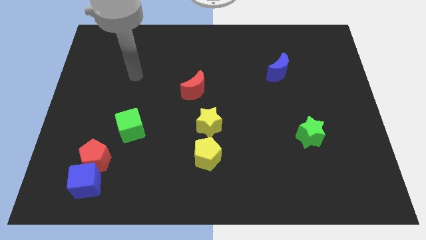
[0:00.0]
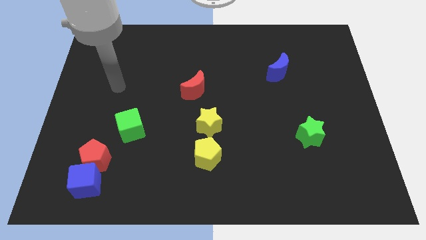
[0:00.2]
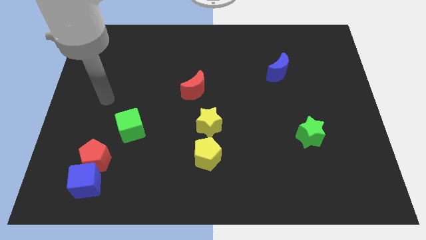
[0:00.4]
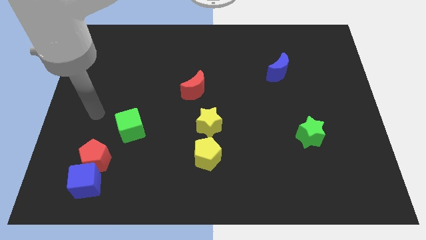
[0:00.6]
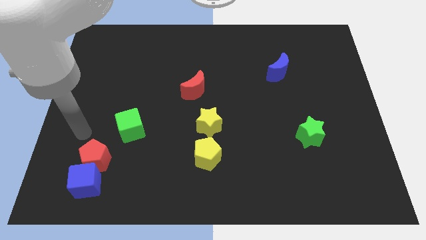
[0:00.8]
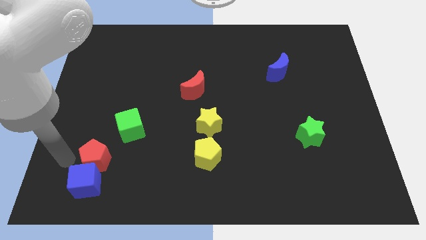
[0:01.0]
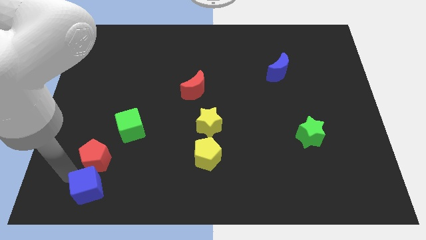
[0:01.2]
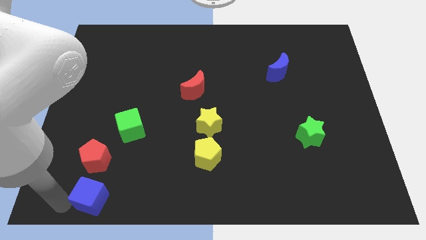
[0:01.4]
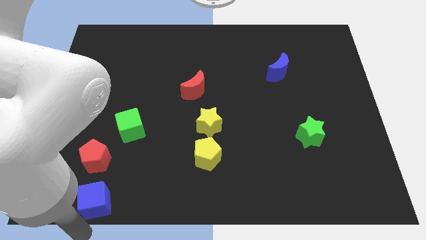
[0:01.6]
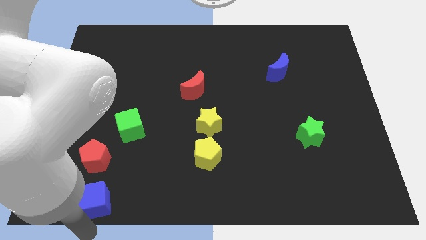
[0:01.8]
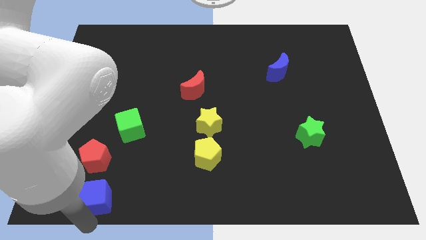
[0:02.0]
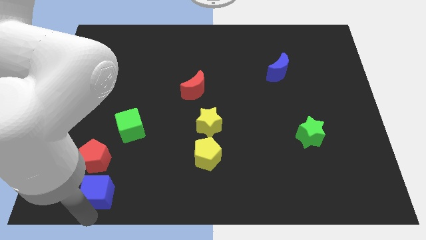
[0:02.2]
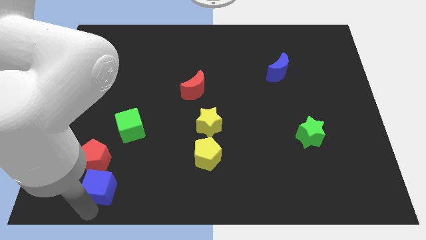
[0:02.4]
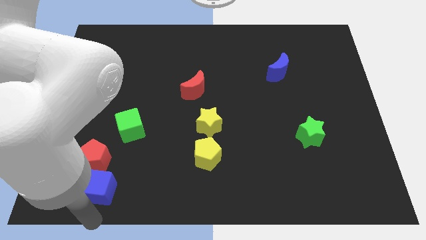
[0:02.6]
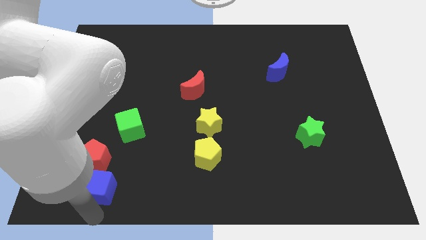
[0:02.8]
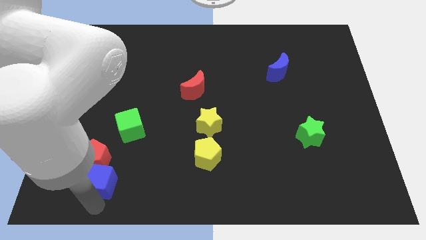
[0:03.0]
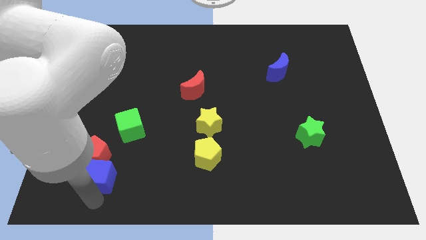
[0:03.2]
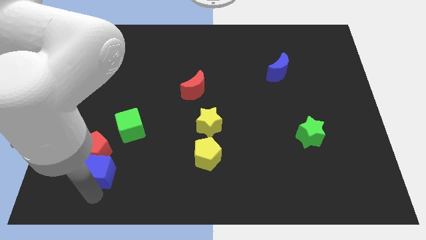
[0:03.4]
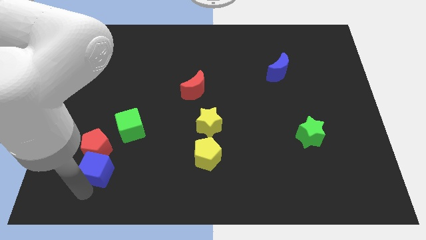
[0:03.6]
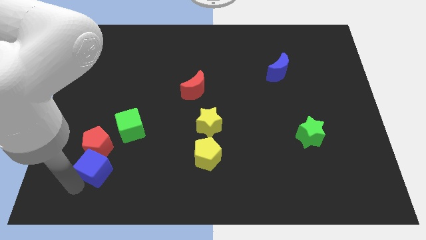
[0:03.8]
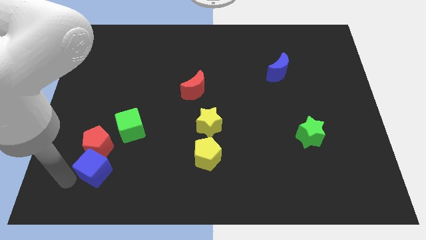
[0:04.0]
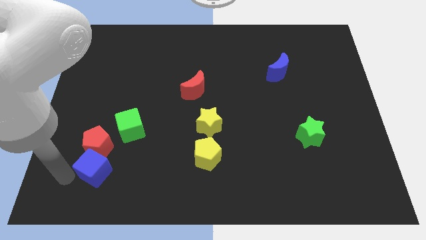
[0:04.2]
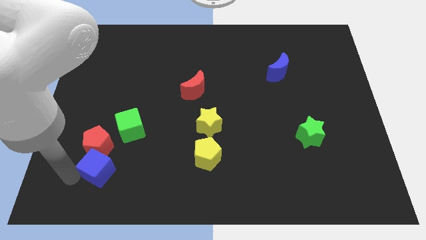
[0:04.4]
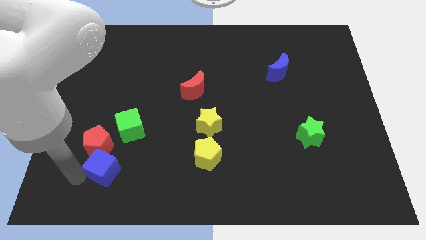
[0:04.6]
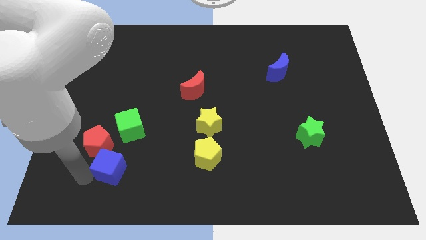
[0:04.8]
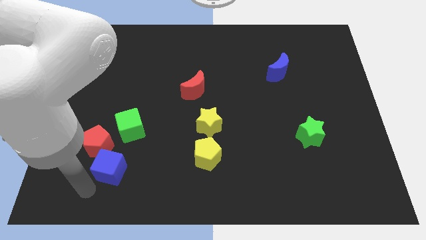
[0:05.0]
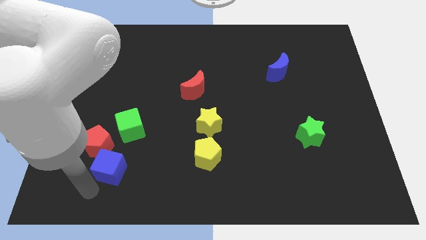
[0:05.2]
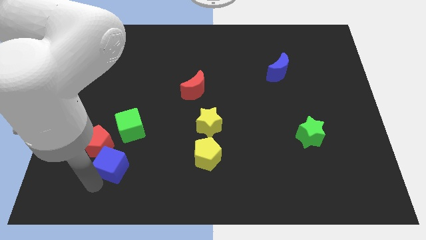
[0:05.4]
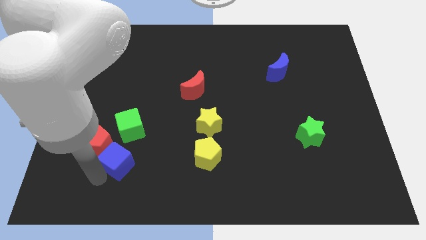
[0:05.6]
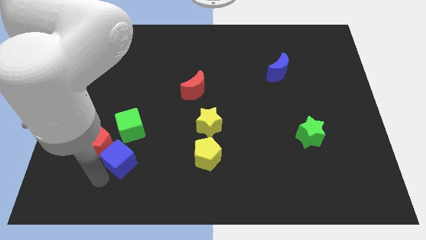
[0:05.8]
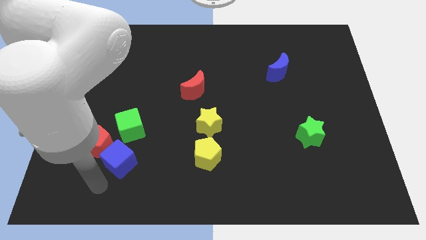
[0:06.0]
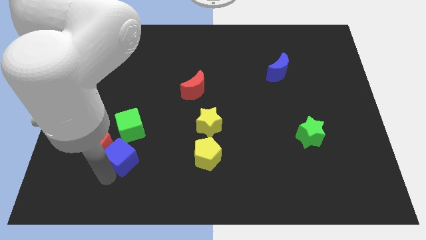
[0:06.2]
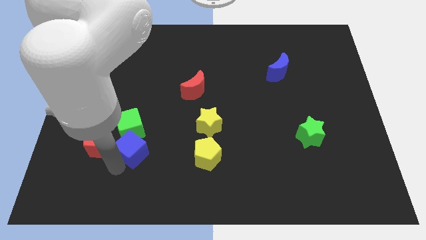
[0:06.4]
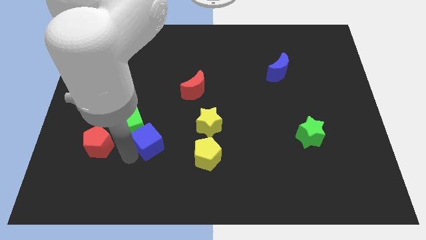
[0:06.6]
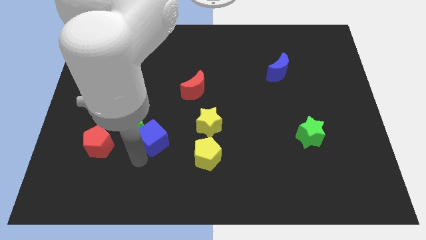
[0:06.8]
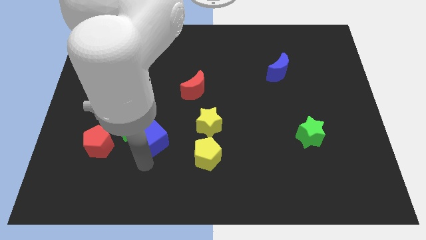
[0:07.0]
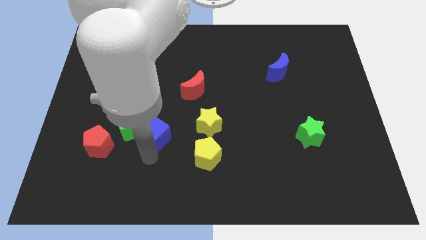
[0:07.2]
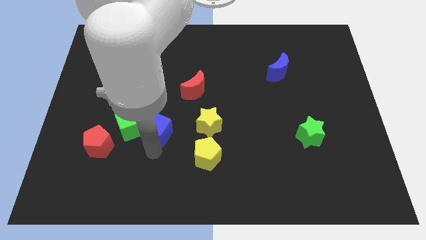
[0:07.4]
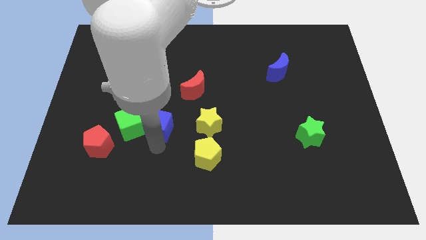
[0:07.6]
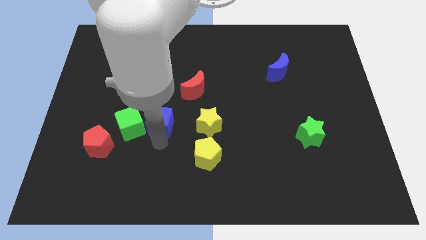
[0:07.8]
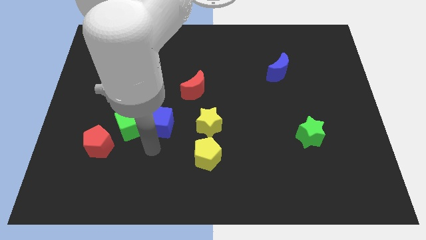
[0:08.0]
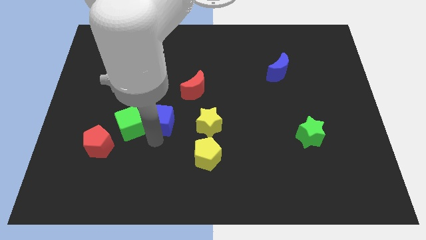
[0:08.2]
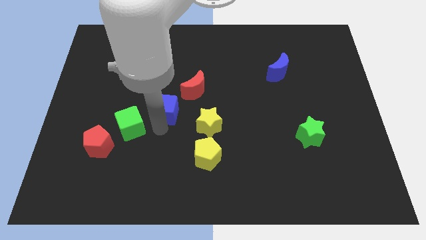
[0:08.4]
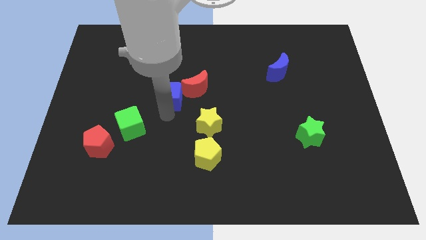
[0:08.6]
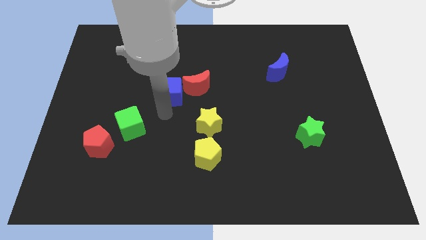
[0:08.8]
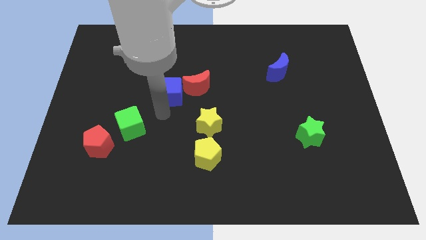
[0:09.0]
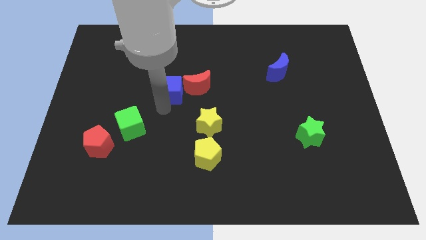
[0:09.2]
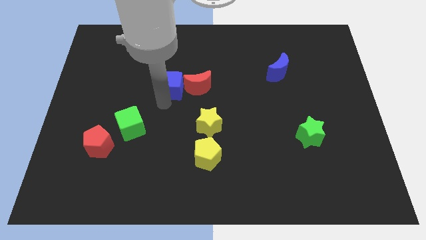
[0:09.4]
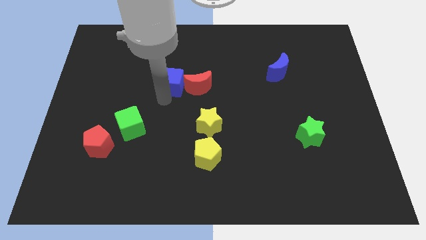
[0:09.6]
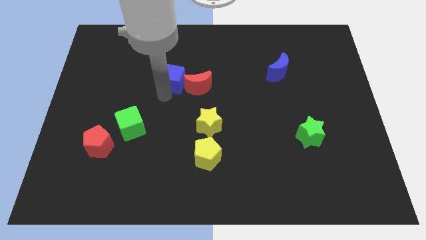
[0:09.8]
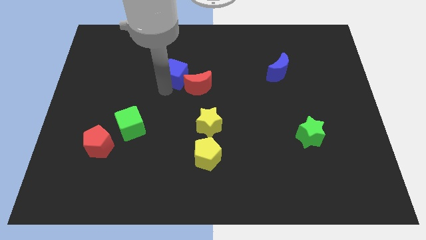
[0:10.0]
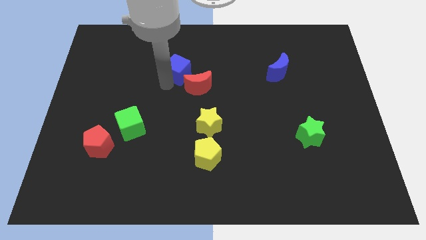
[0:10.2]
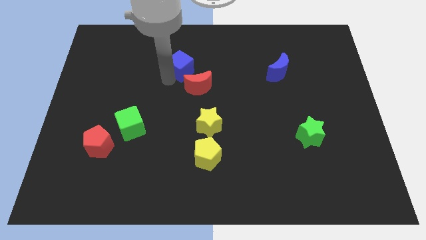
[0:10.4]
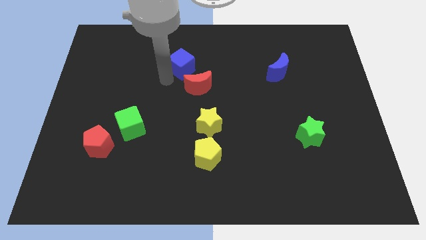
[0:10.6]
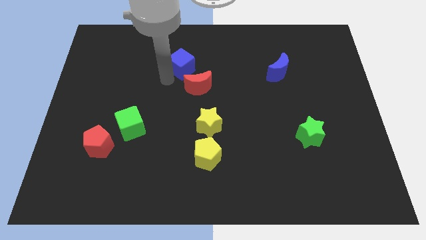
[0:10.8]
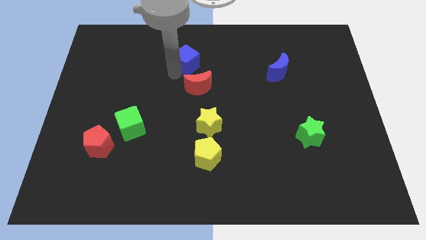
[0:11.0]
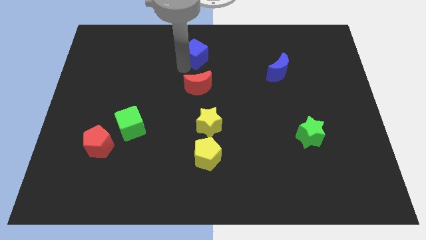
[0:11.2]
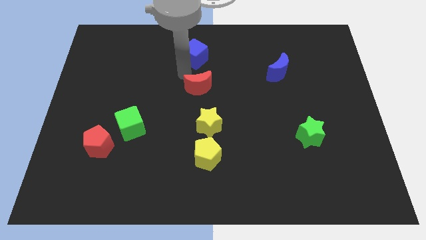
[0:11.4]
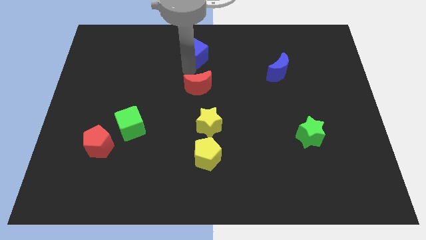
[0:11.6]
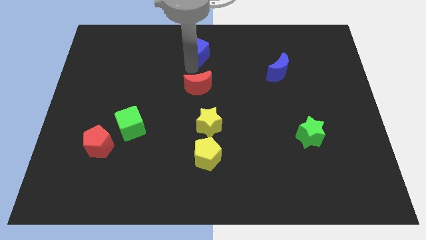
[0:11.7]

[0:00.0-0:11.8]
put the blue cube to the top side
